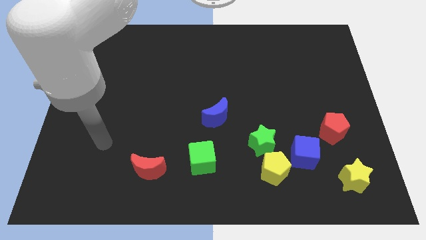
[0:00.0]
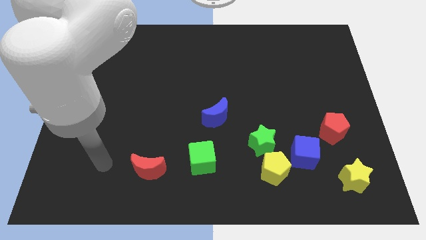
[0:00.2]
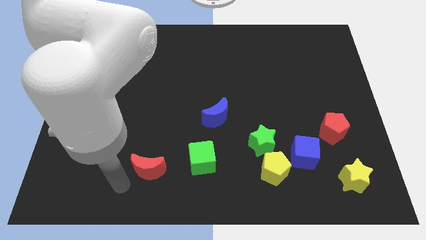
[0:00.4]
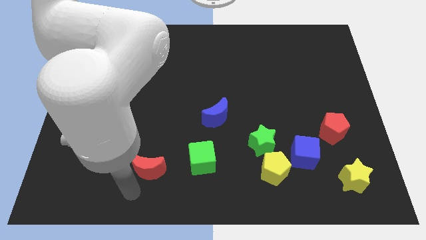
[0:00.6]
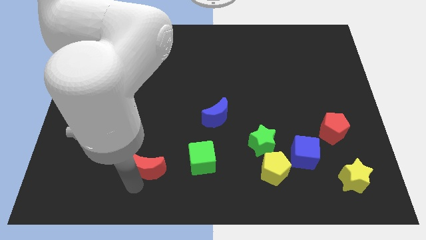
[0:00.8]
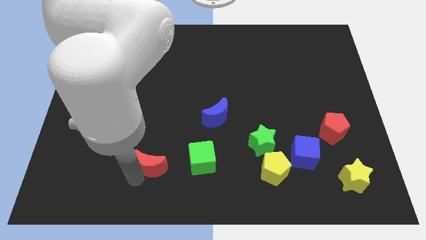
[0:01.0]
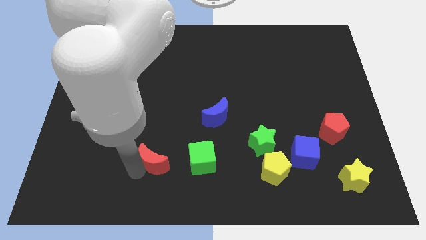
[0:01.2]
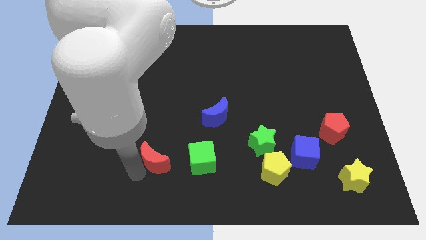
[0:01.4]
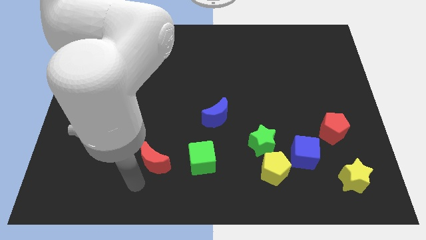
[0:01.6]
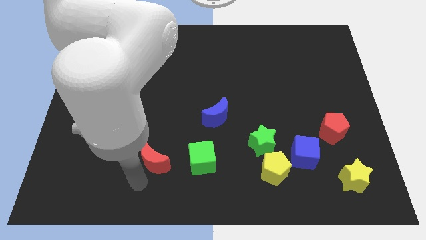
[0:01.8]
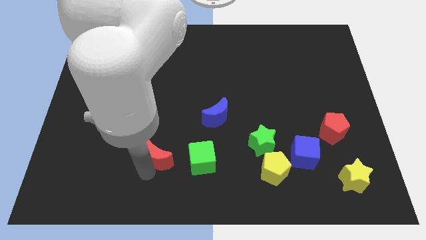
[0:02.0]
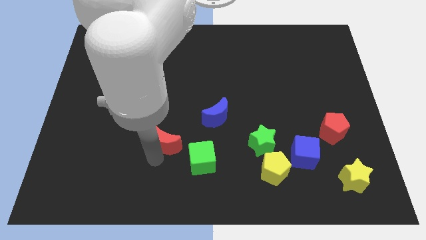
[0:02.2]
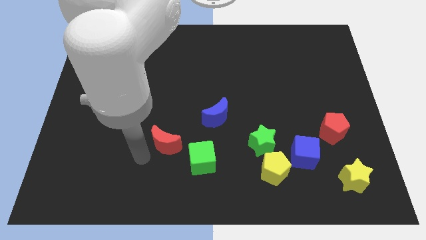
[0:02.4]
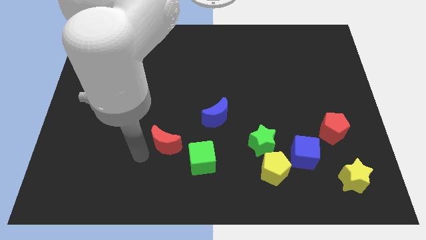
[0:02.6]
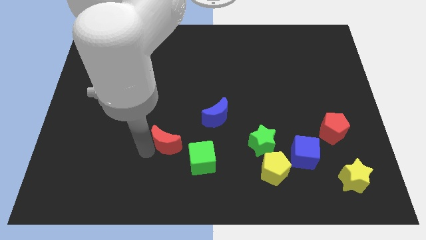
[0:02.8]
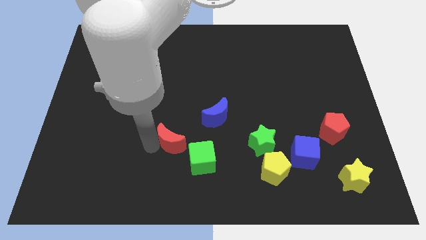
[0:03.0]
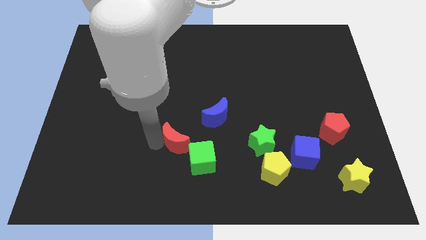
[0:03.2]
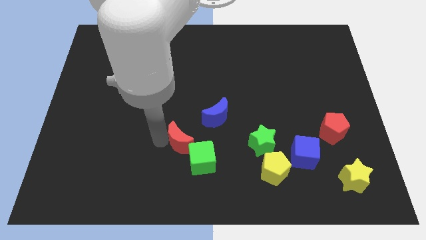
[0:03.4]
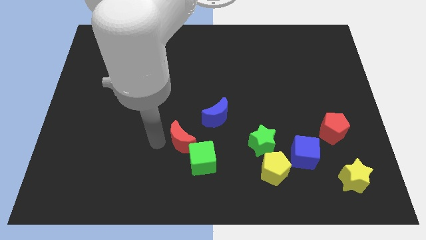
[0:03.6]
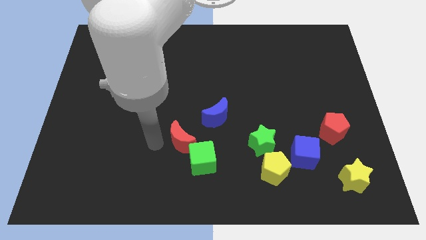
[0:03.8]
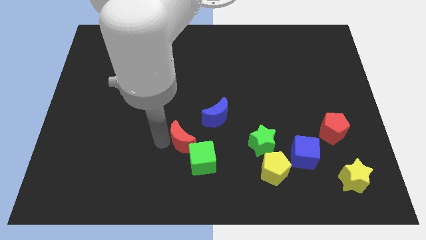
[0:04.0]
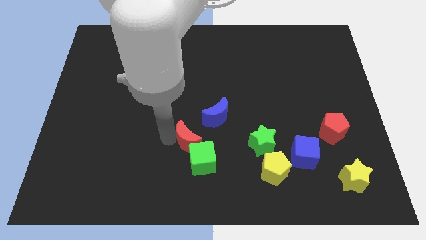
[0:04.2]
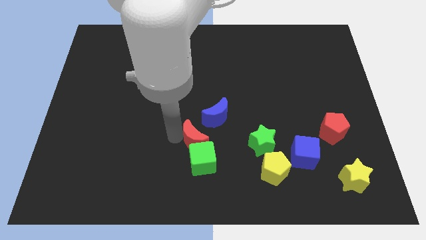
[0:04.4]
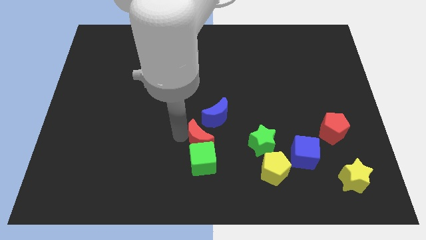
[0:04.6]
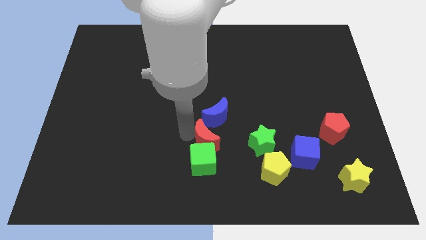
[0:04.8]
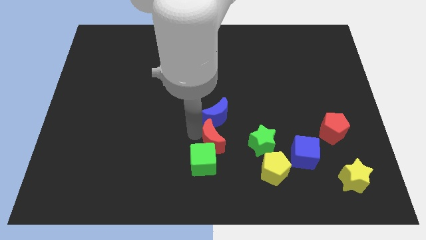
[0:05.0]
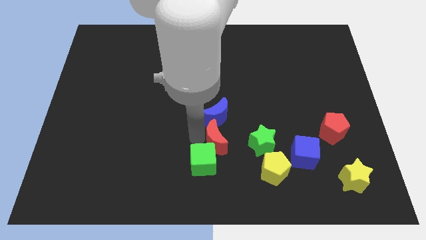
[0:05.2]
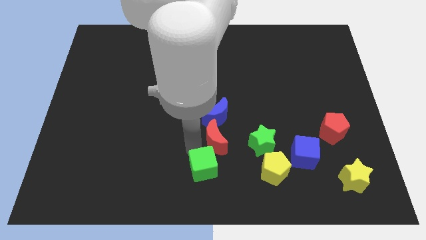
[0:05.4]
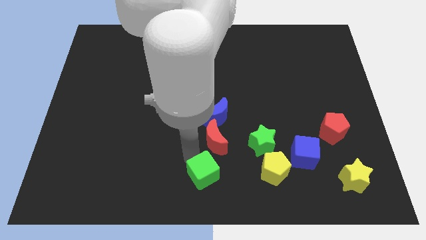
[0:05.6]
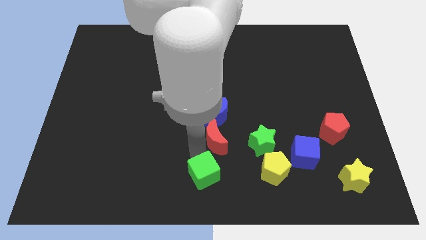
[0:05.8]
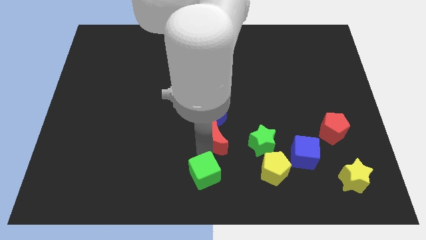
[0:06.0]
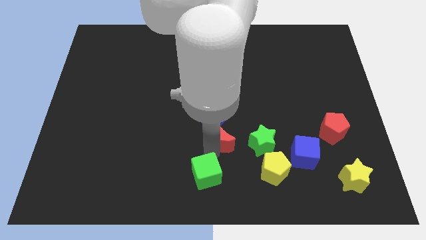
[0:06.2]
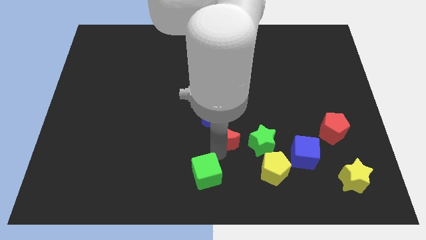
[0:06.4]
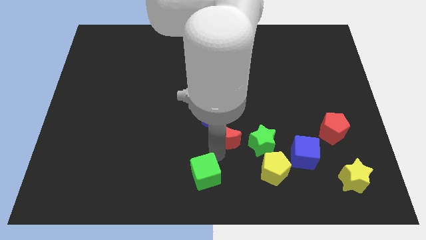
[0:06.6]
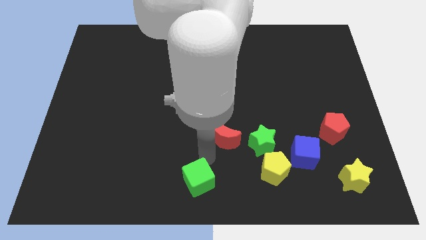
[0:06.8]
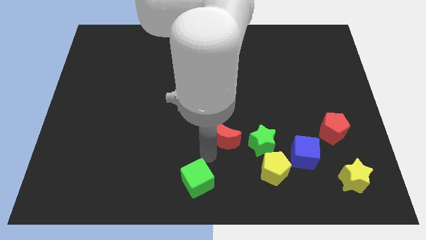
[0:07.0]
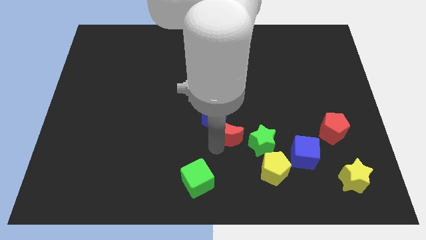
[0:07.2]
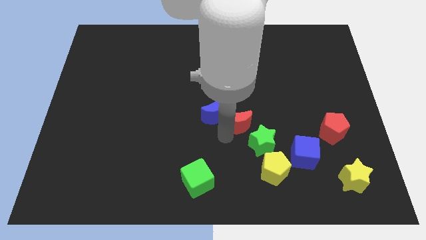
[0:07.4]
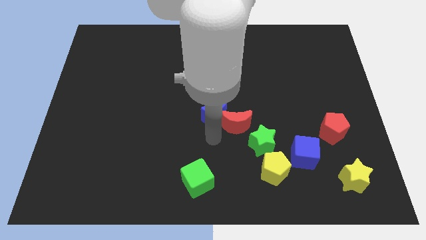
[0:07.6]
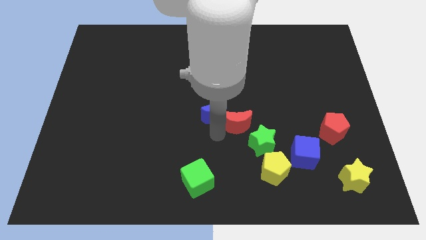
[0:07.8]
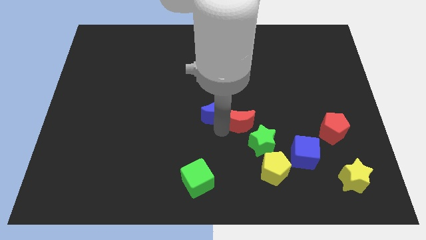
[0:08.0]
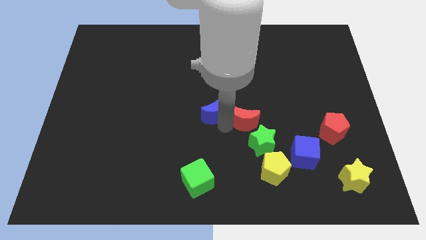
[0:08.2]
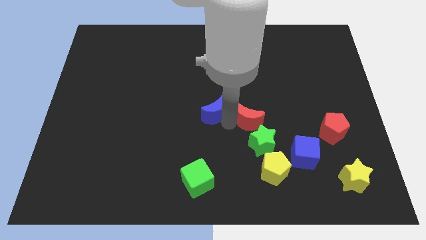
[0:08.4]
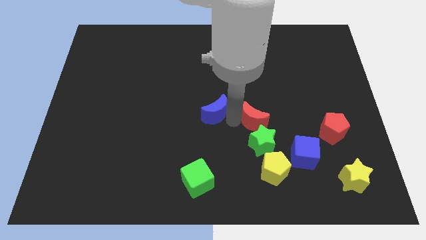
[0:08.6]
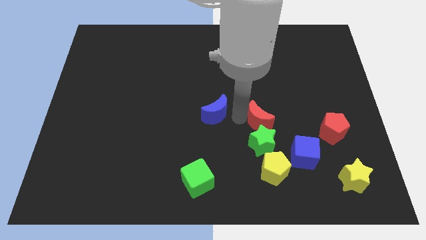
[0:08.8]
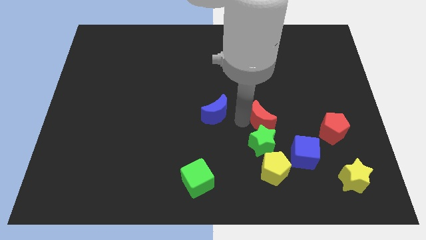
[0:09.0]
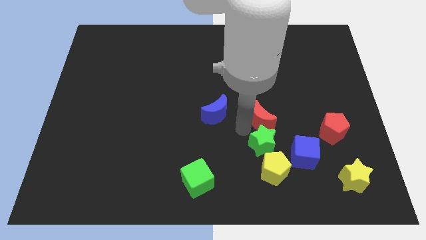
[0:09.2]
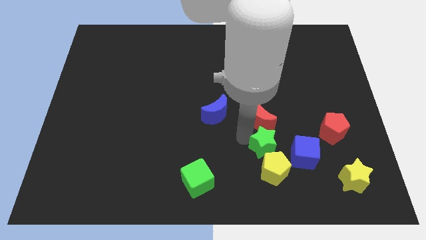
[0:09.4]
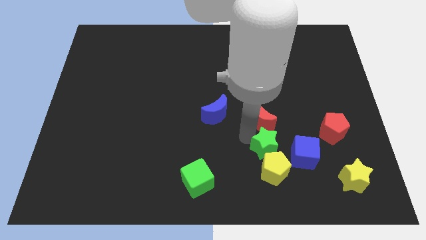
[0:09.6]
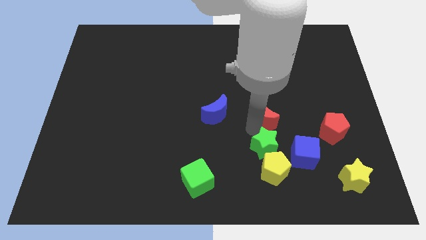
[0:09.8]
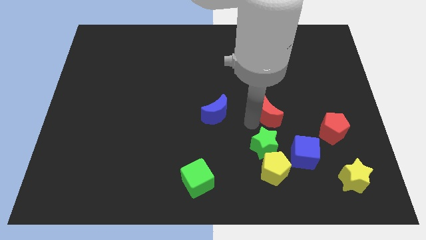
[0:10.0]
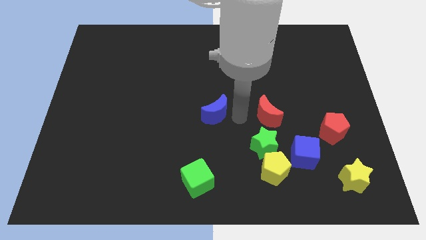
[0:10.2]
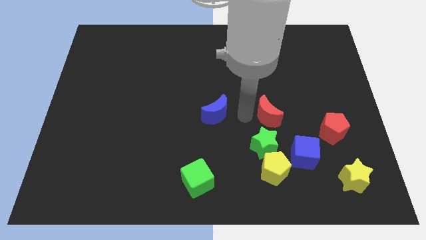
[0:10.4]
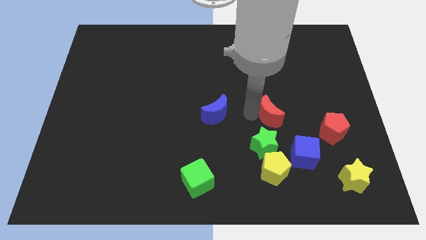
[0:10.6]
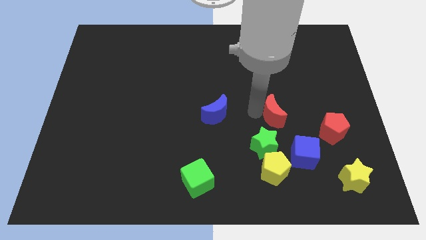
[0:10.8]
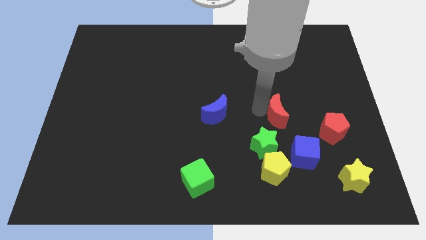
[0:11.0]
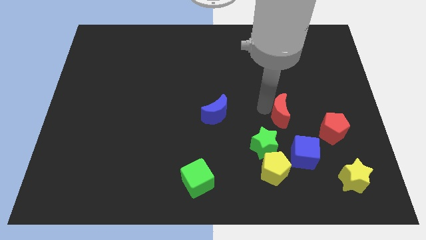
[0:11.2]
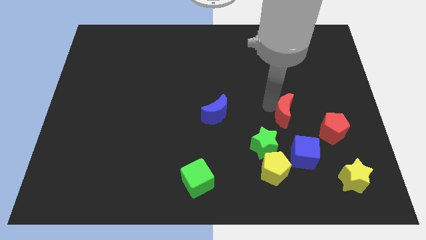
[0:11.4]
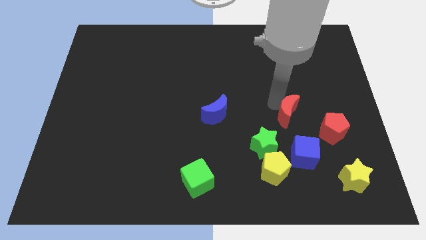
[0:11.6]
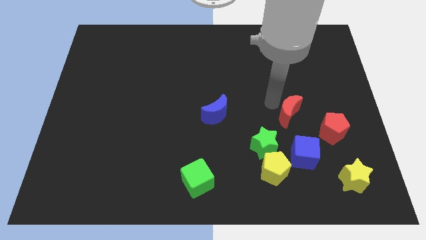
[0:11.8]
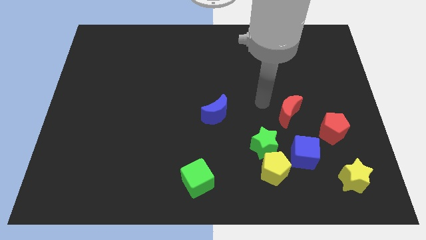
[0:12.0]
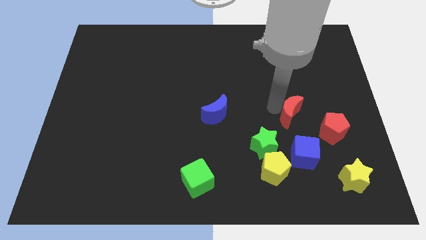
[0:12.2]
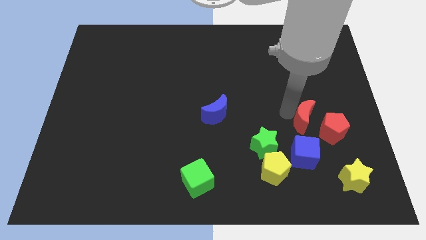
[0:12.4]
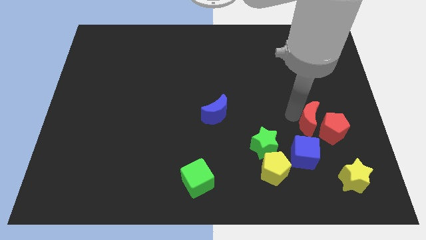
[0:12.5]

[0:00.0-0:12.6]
move the red moon close to the red pentagon
